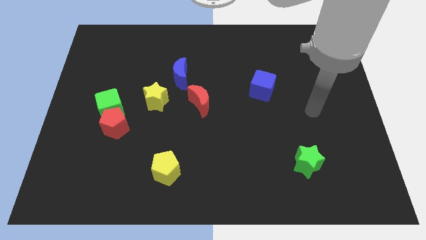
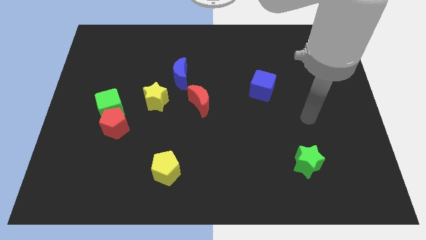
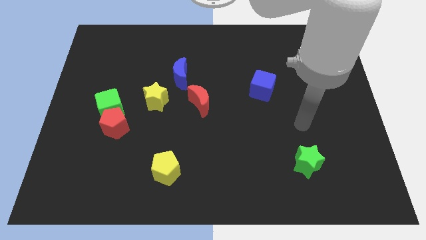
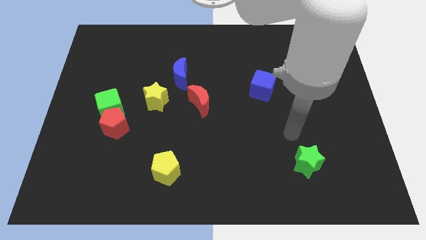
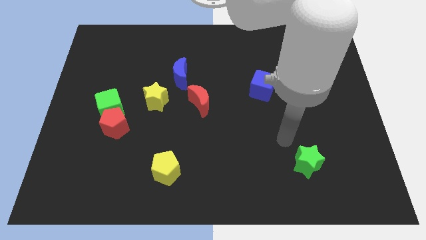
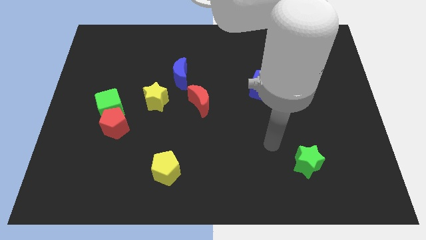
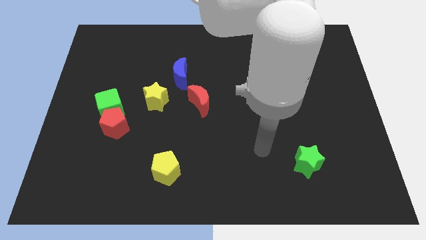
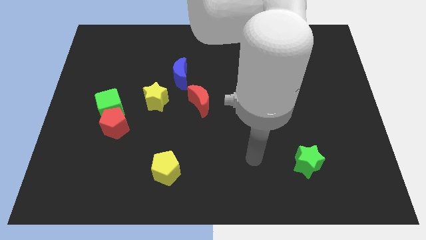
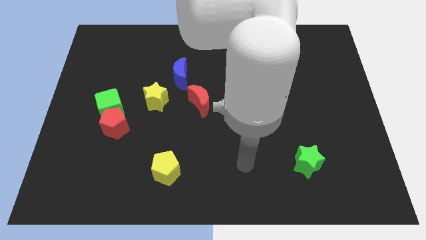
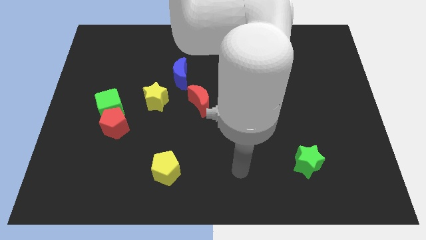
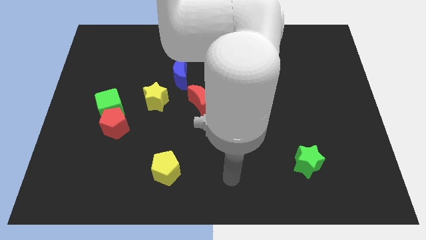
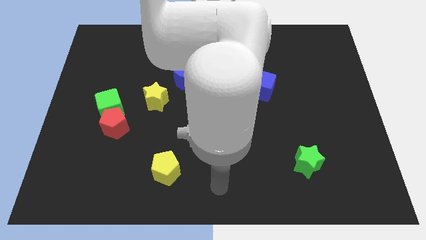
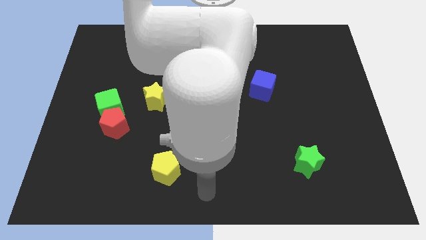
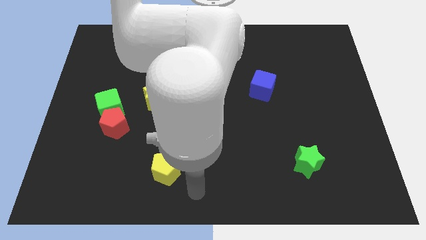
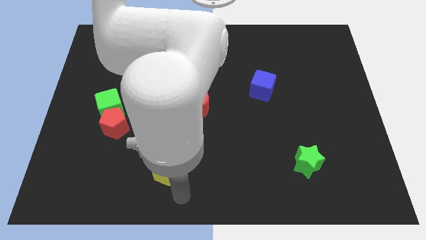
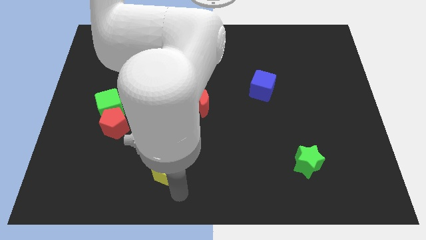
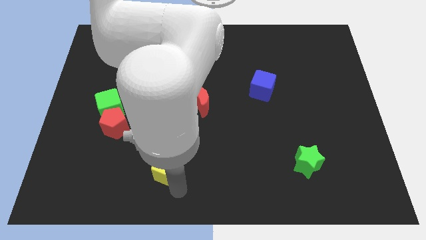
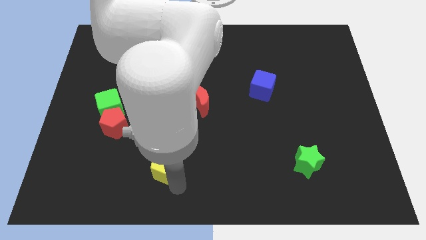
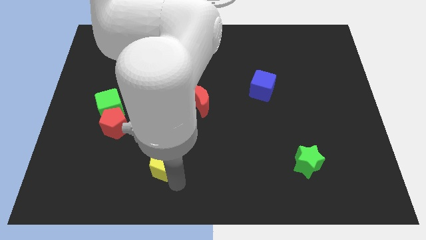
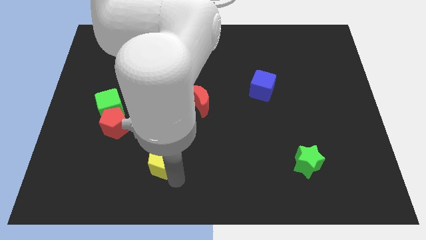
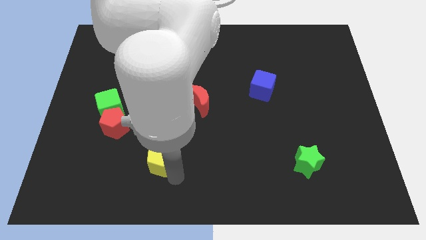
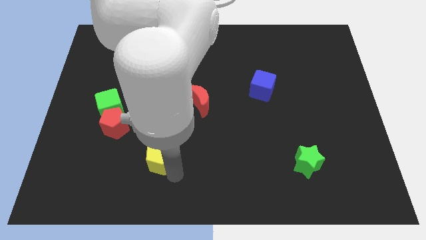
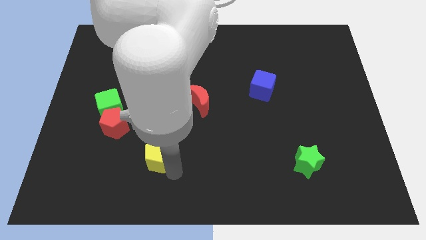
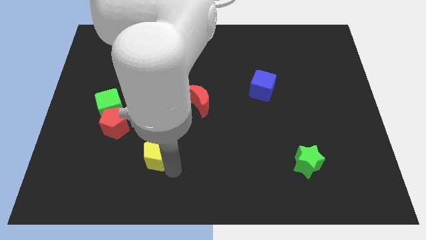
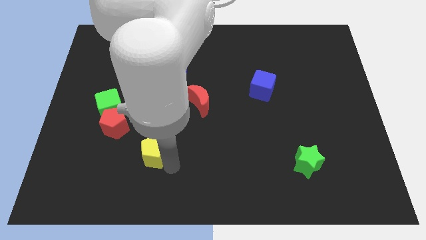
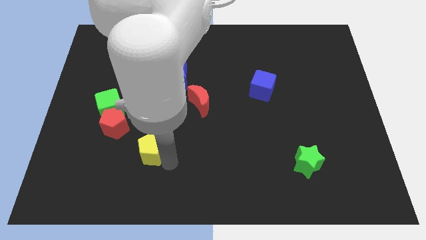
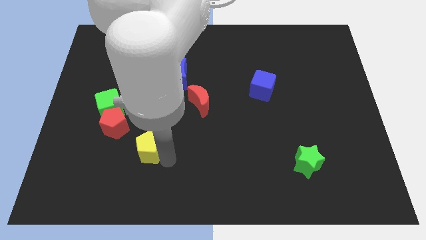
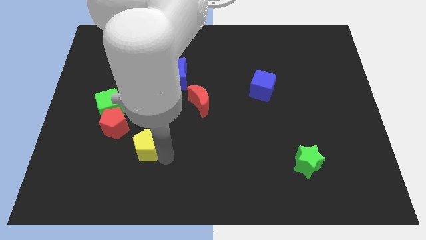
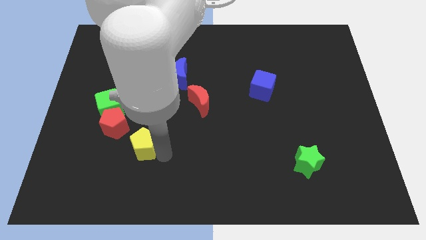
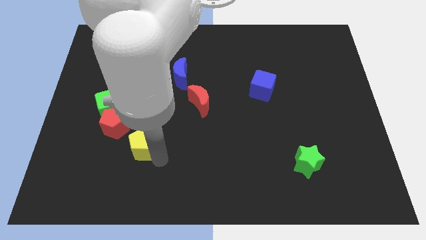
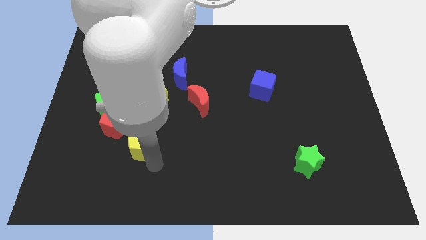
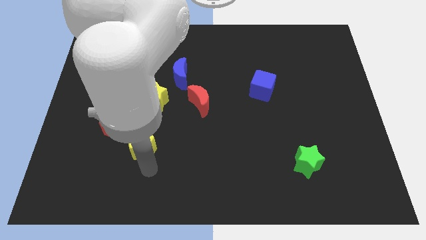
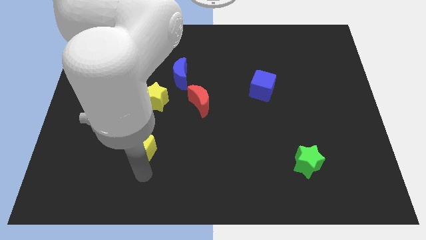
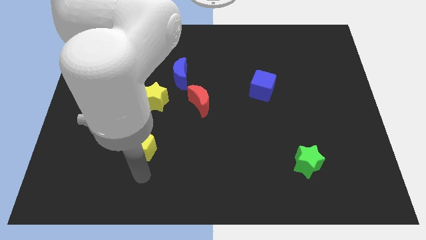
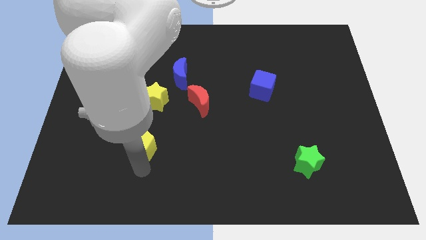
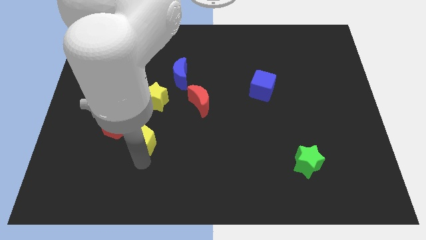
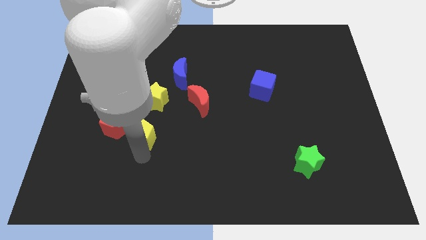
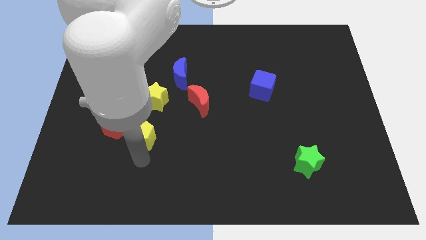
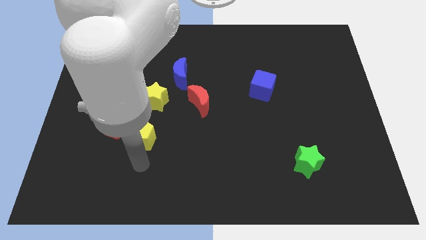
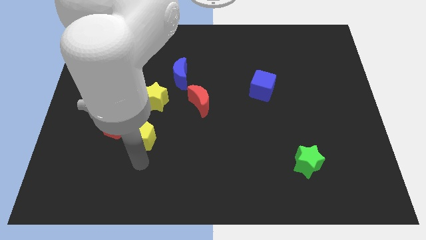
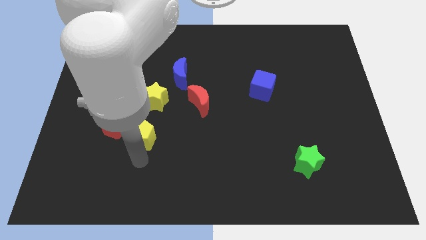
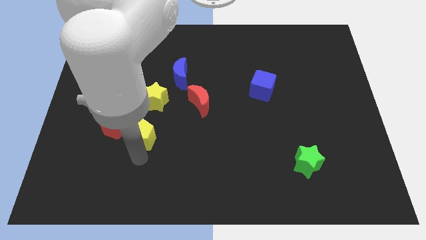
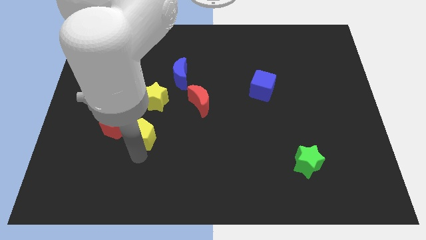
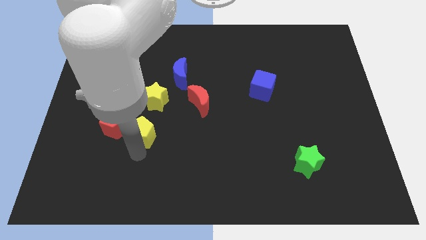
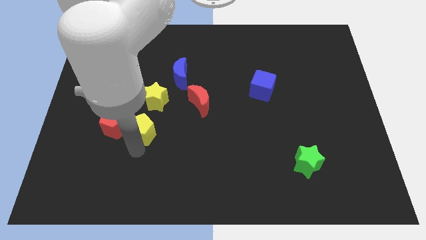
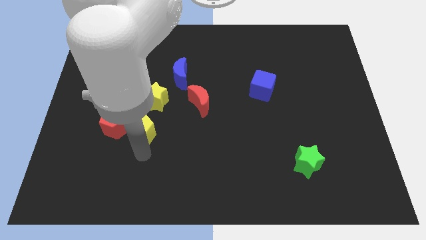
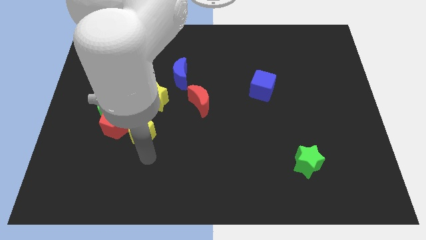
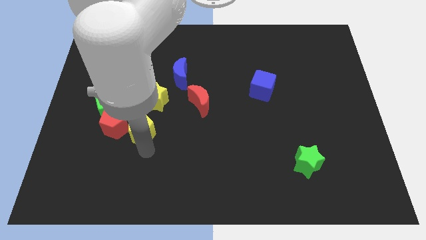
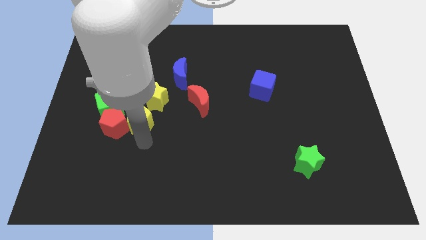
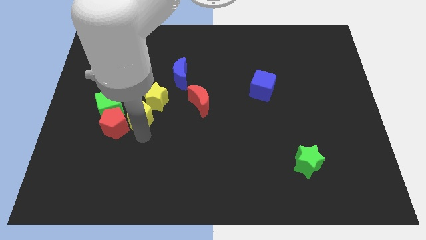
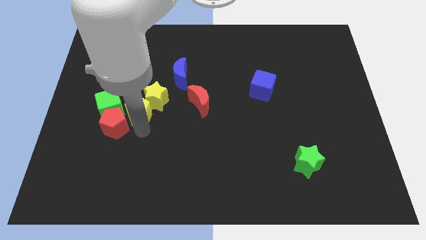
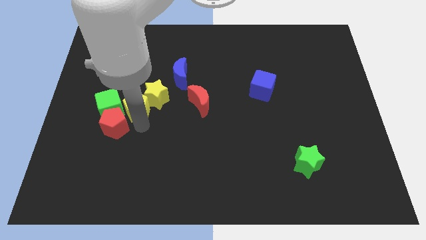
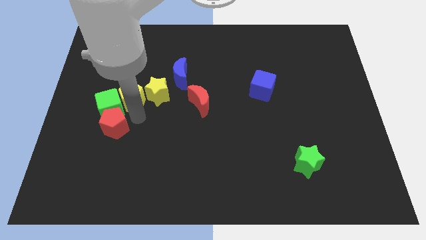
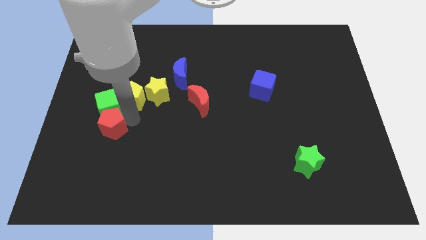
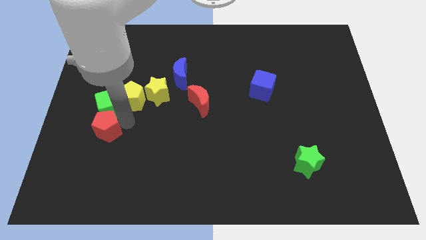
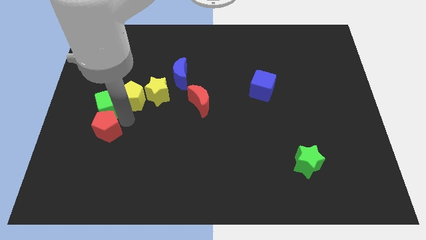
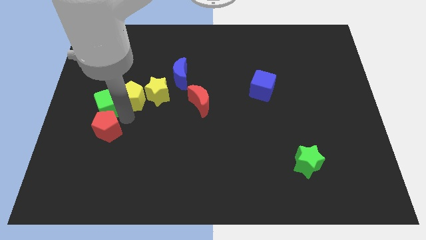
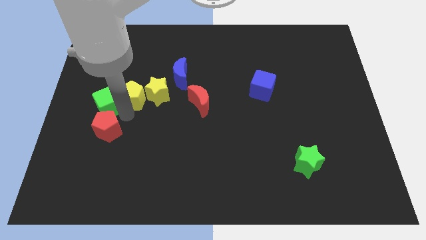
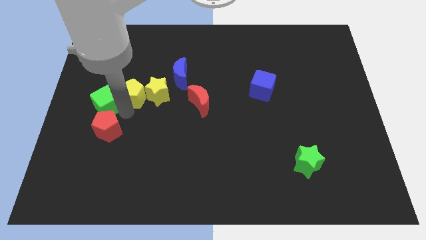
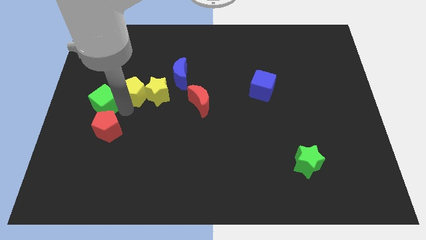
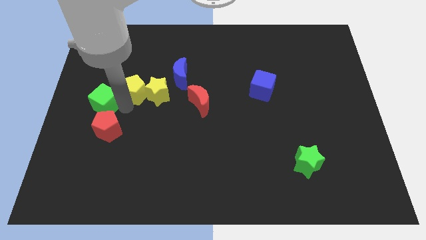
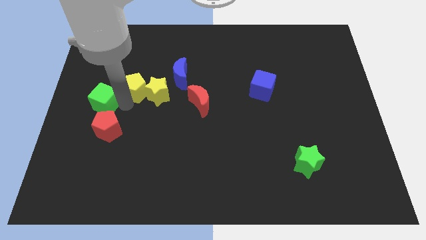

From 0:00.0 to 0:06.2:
put the yellow pentagon to the left of the blue moon

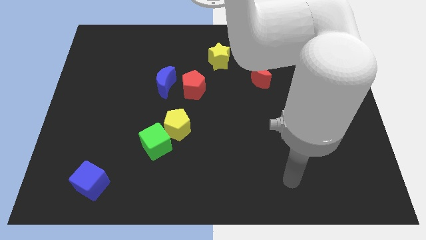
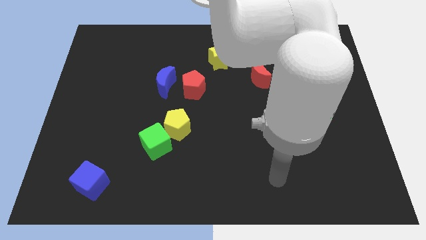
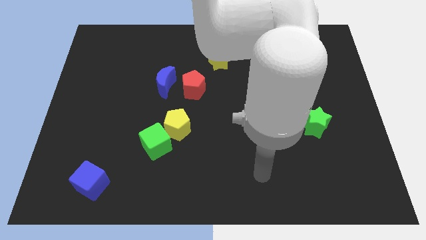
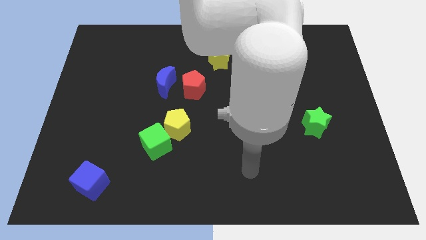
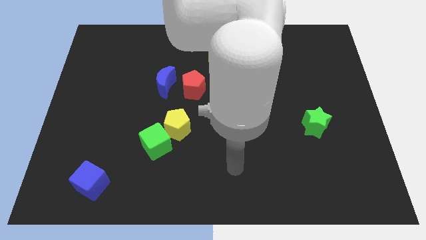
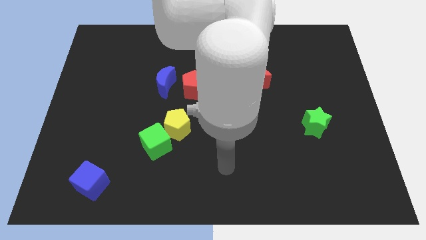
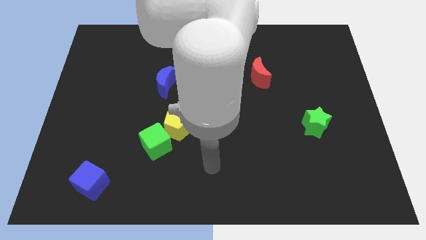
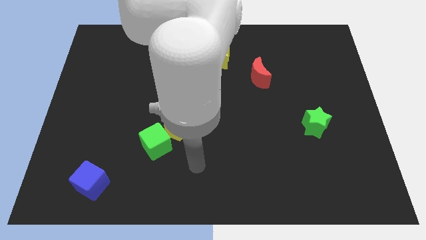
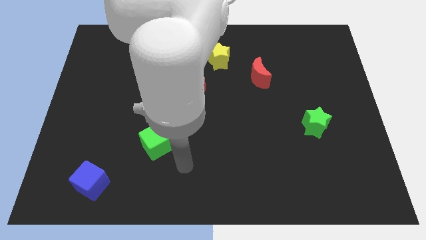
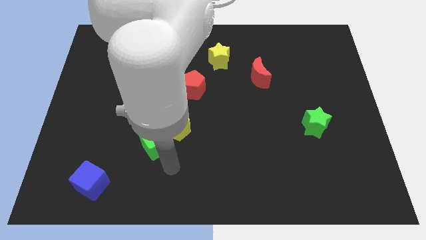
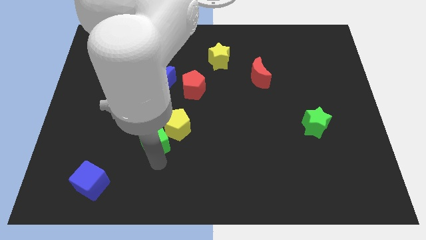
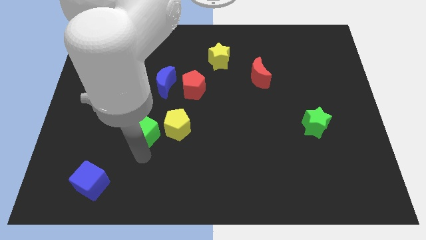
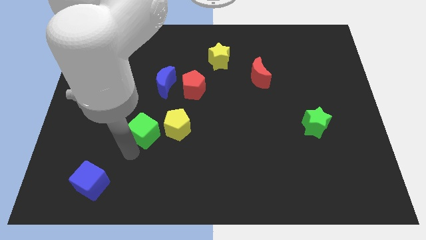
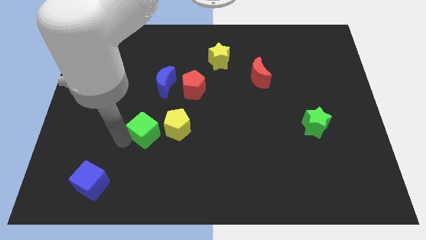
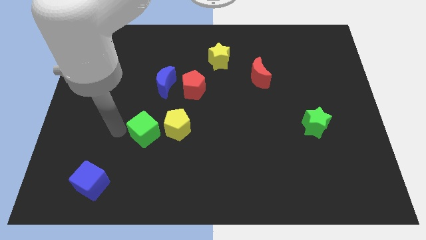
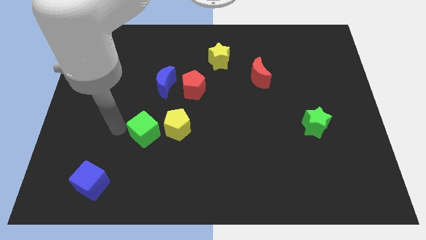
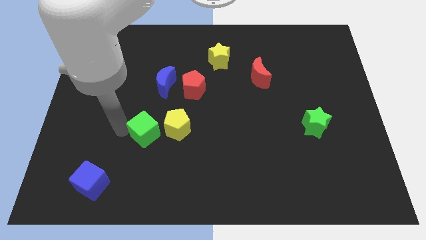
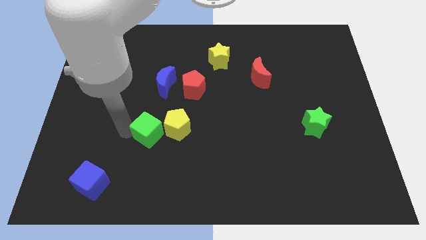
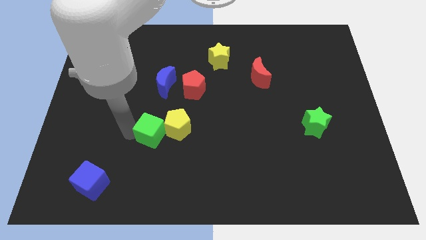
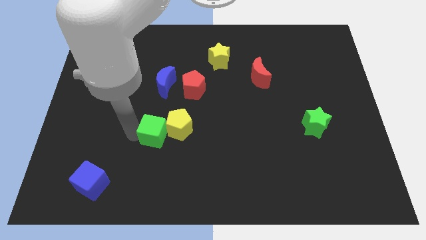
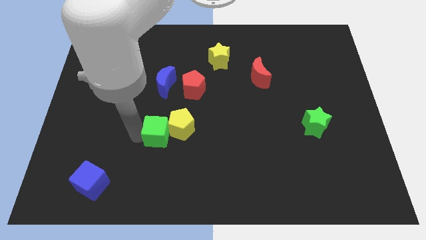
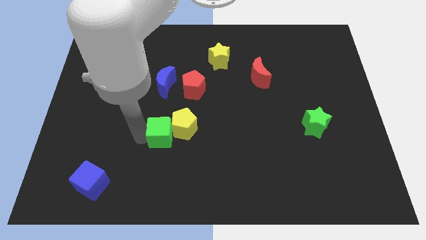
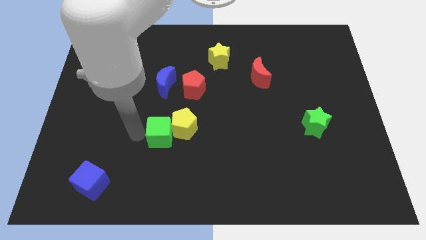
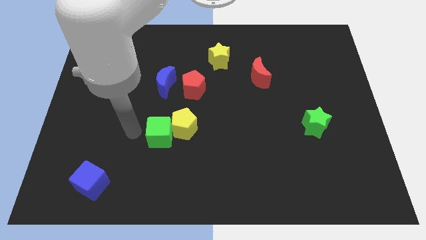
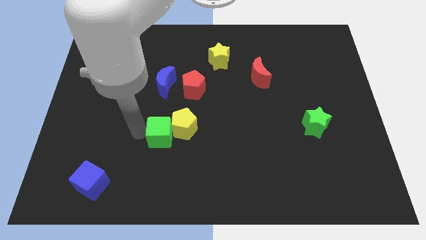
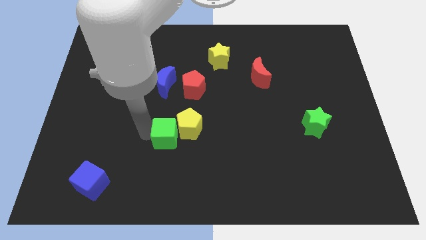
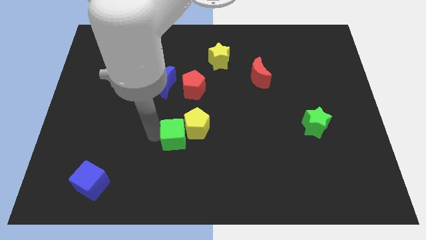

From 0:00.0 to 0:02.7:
put the green cube to the bottom side of the red pentagon
